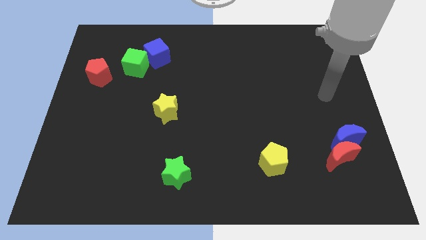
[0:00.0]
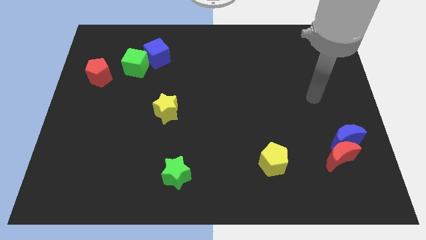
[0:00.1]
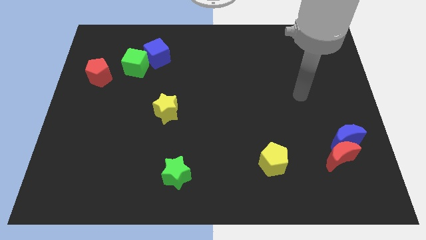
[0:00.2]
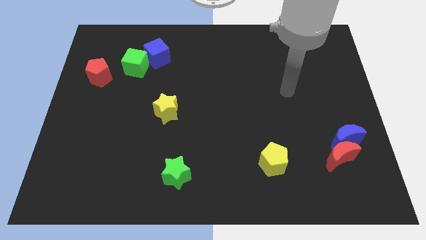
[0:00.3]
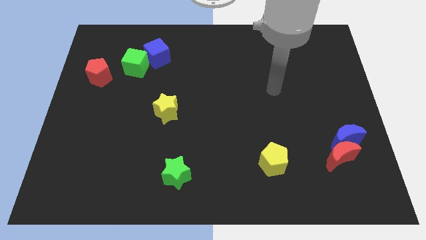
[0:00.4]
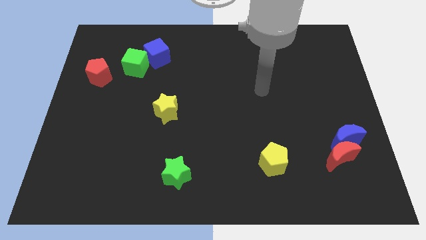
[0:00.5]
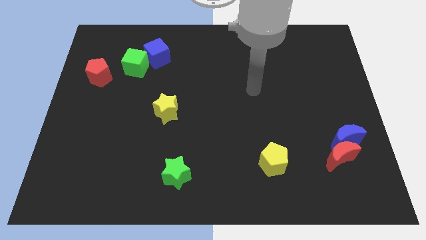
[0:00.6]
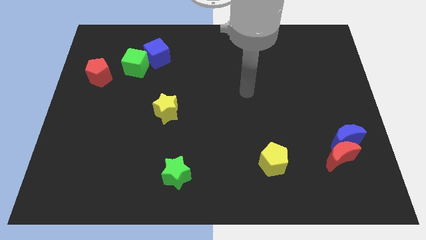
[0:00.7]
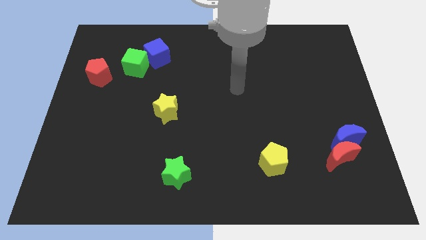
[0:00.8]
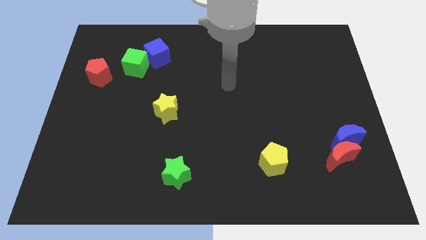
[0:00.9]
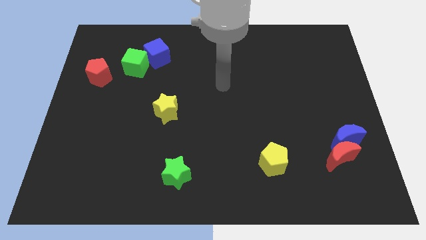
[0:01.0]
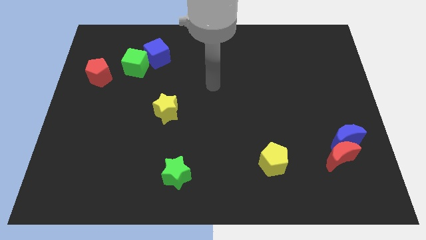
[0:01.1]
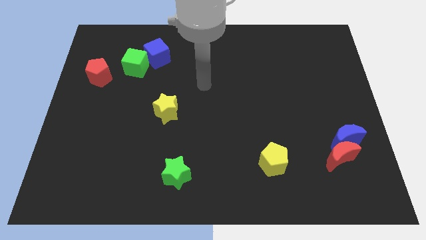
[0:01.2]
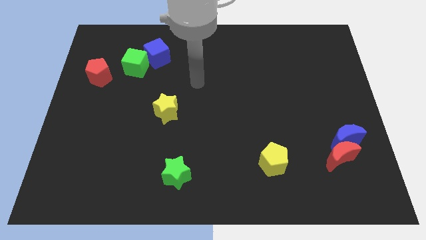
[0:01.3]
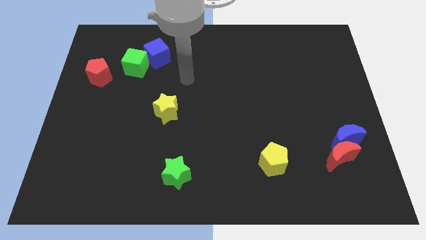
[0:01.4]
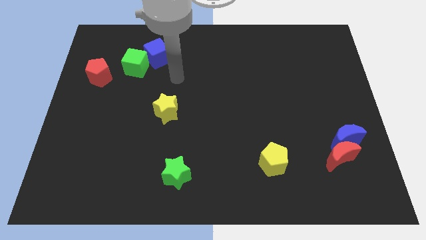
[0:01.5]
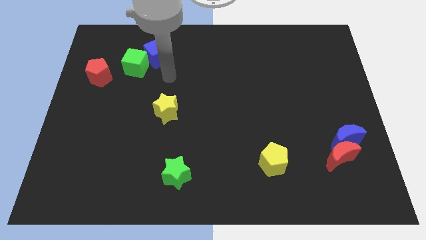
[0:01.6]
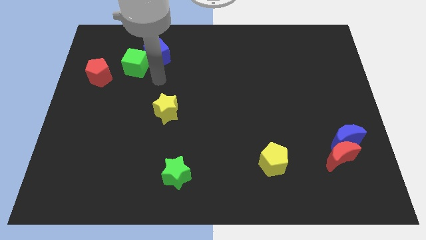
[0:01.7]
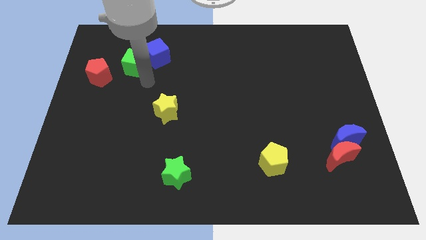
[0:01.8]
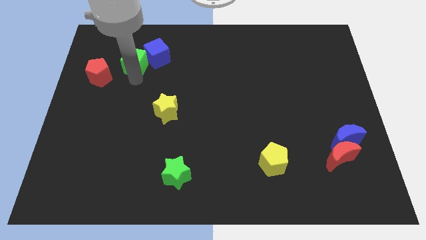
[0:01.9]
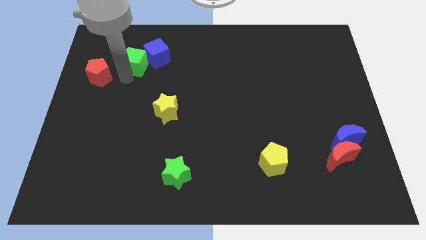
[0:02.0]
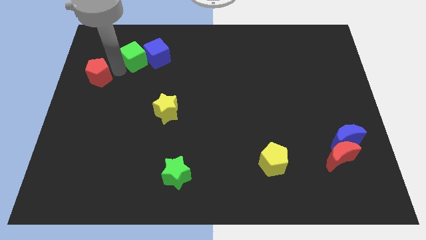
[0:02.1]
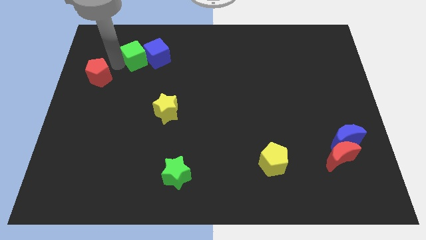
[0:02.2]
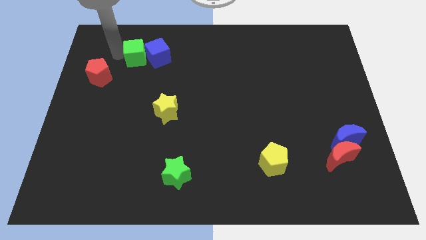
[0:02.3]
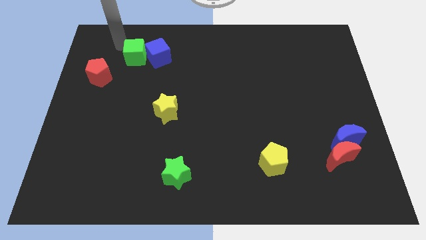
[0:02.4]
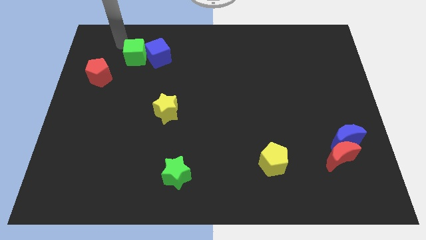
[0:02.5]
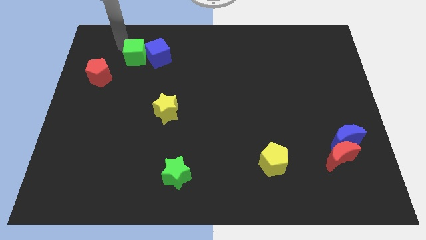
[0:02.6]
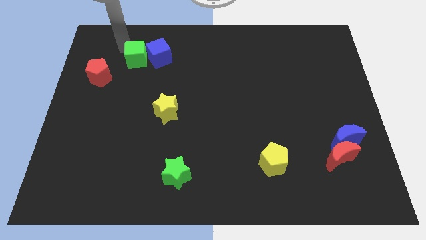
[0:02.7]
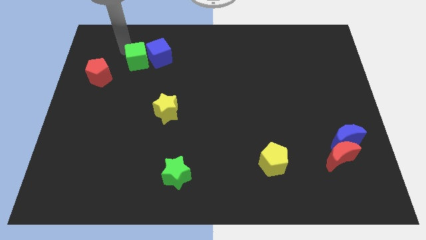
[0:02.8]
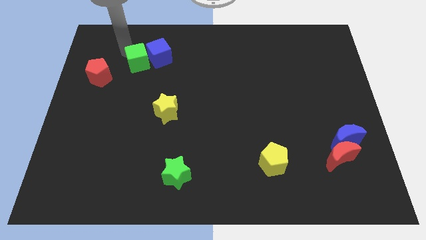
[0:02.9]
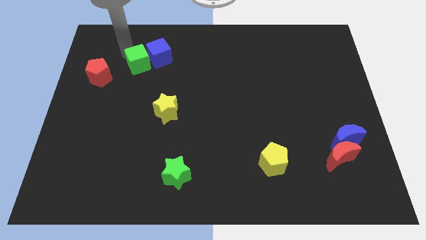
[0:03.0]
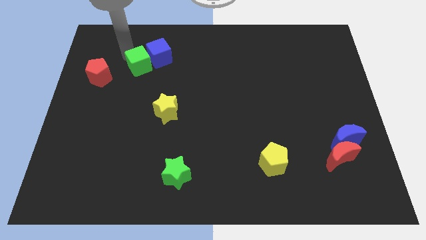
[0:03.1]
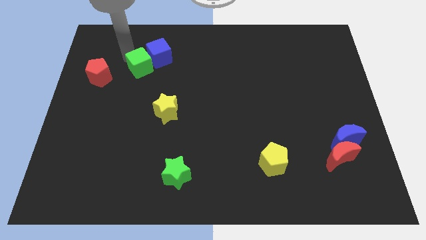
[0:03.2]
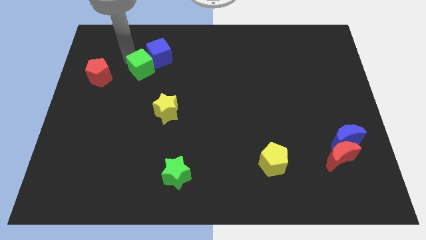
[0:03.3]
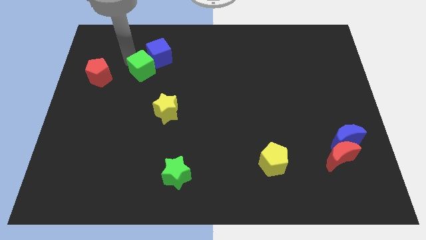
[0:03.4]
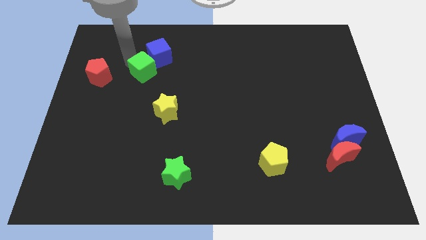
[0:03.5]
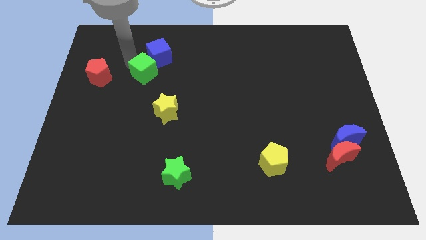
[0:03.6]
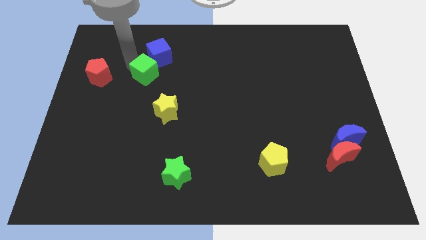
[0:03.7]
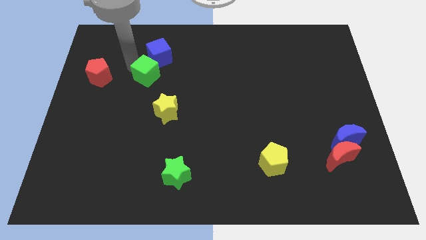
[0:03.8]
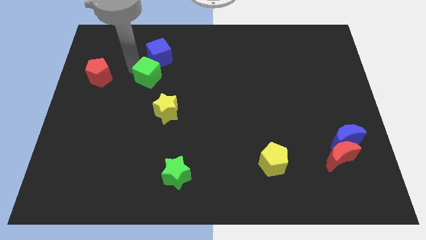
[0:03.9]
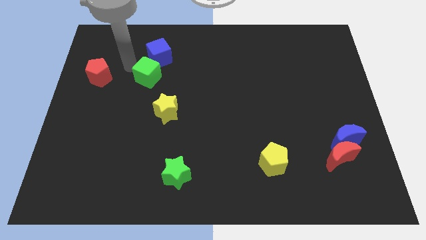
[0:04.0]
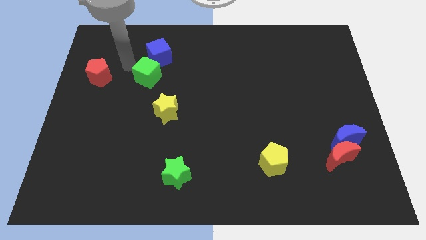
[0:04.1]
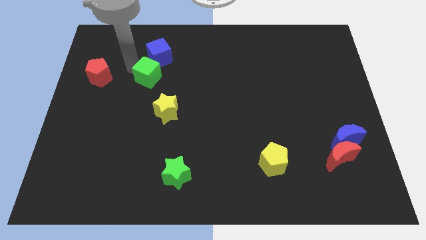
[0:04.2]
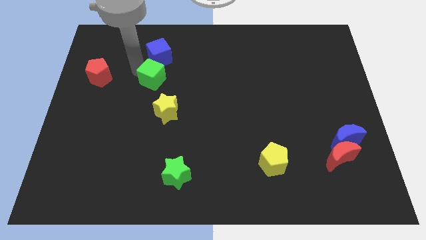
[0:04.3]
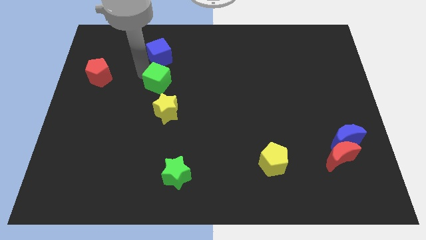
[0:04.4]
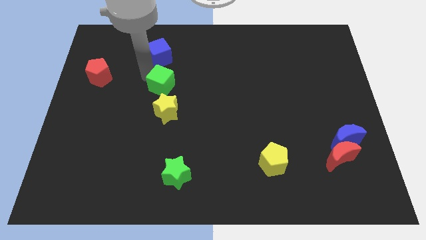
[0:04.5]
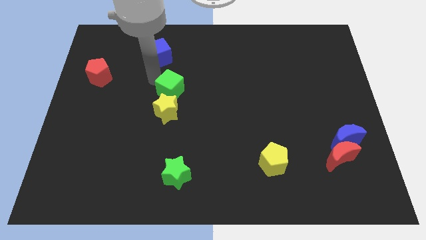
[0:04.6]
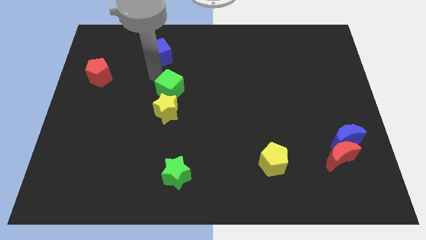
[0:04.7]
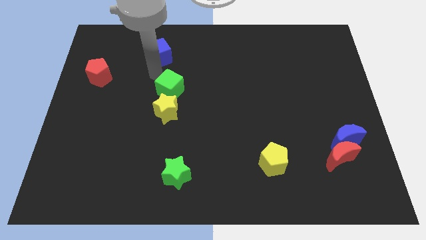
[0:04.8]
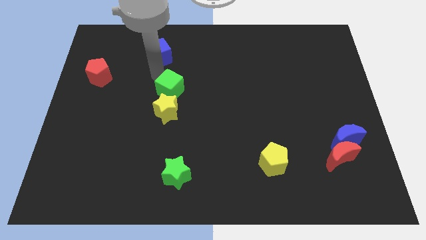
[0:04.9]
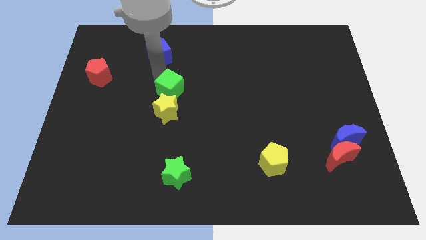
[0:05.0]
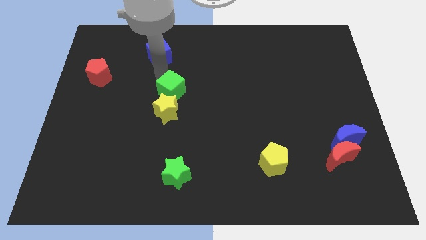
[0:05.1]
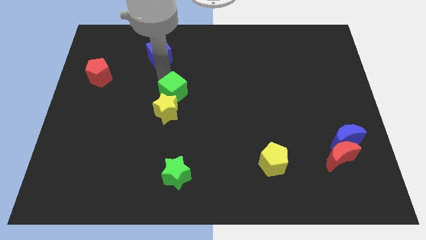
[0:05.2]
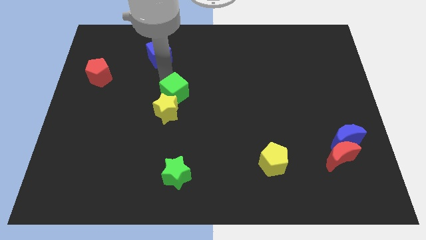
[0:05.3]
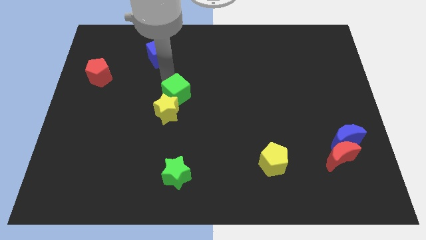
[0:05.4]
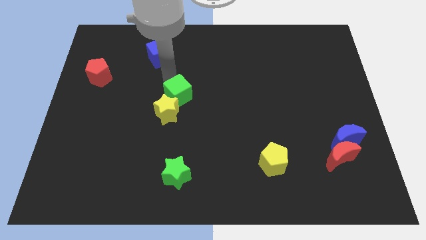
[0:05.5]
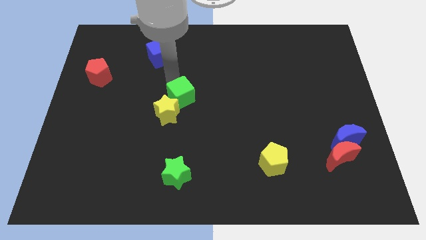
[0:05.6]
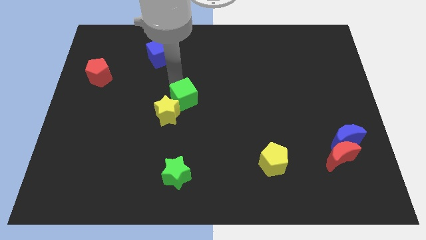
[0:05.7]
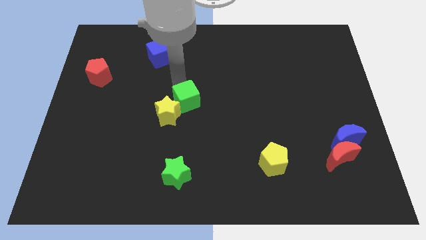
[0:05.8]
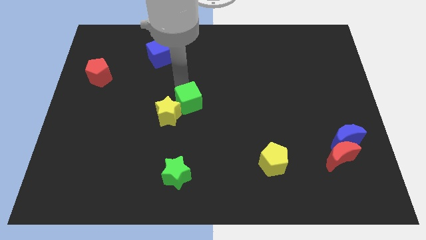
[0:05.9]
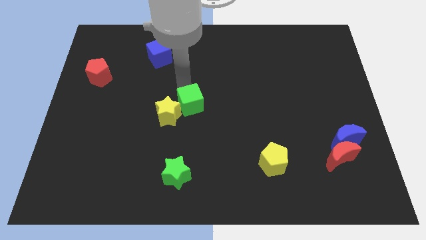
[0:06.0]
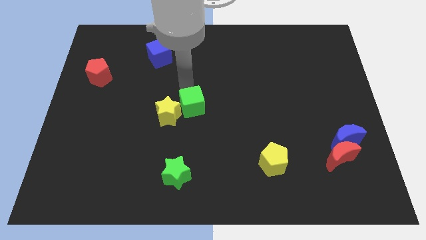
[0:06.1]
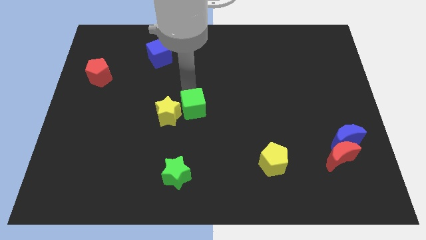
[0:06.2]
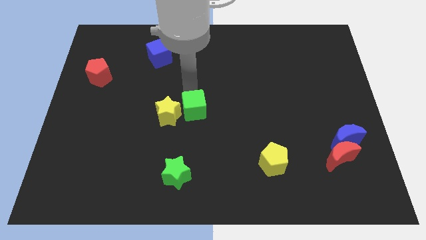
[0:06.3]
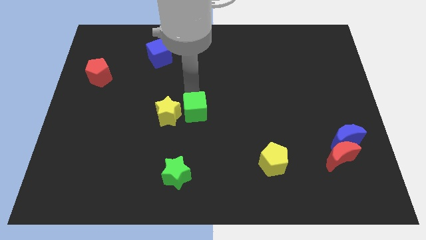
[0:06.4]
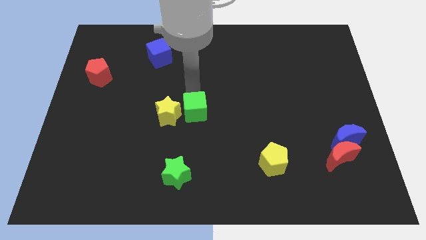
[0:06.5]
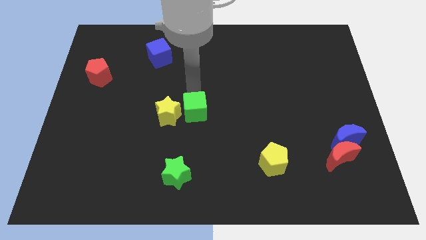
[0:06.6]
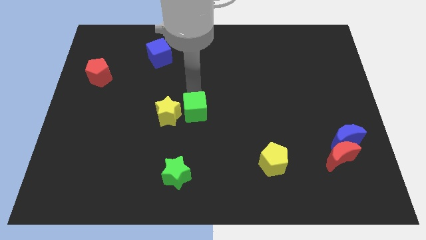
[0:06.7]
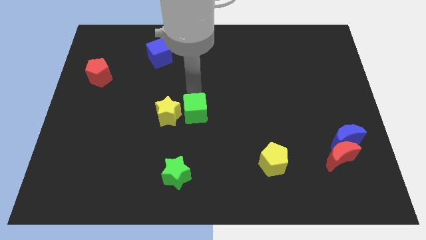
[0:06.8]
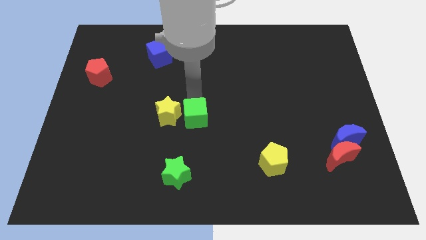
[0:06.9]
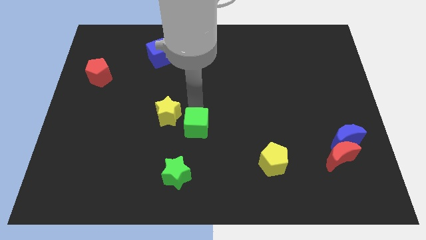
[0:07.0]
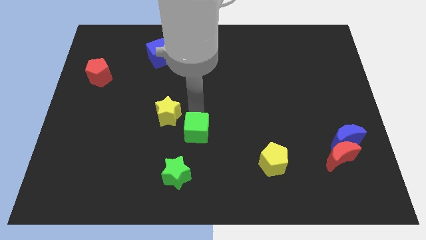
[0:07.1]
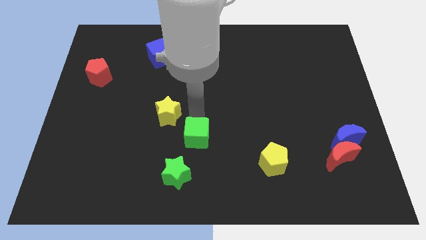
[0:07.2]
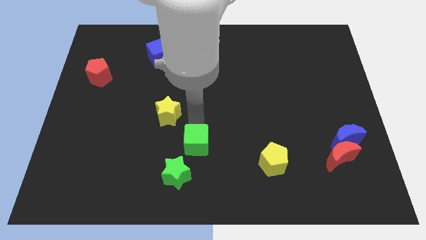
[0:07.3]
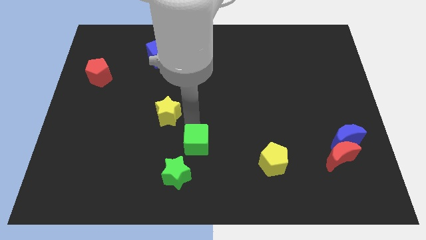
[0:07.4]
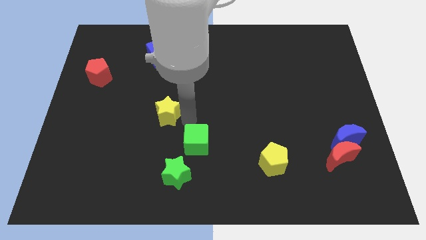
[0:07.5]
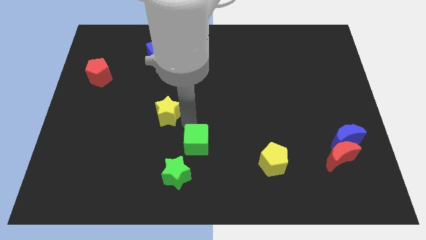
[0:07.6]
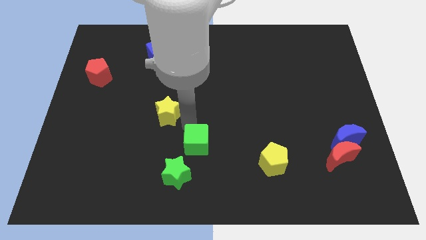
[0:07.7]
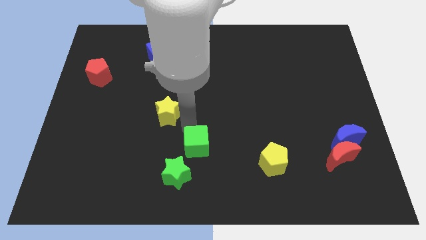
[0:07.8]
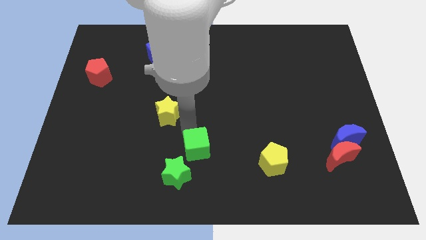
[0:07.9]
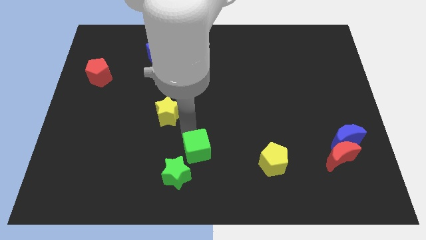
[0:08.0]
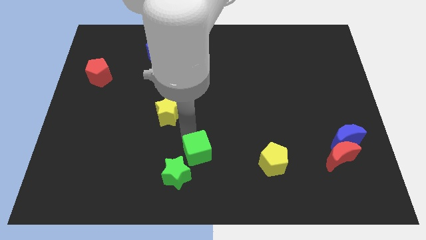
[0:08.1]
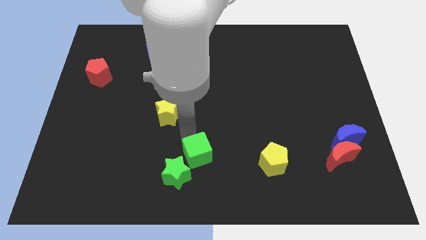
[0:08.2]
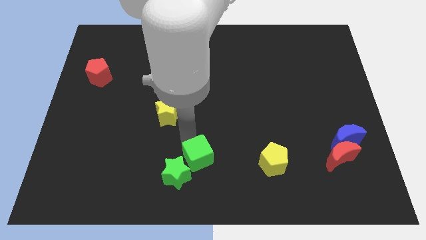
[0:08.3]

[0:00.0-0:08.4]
slide the green cube to the bottom side
